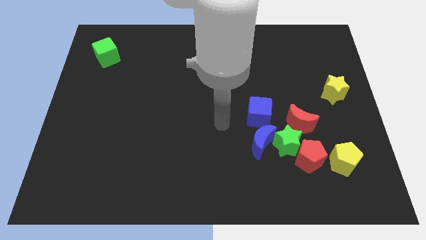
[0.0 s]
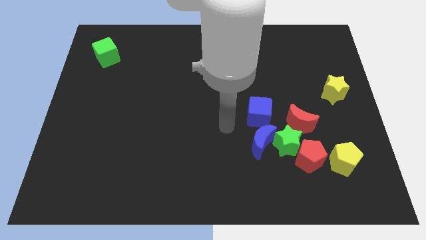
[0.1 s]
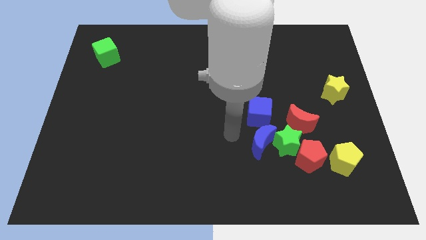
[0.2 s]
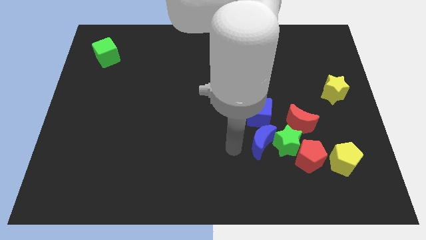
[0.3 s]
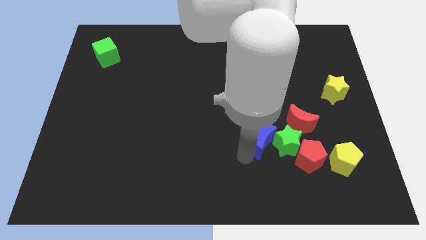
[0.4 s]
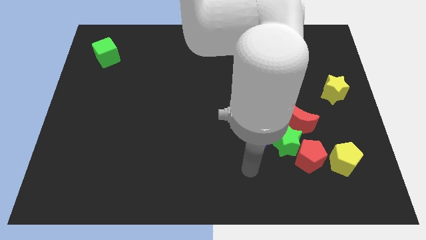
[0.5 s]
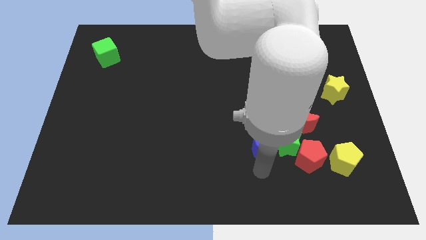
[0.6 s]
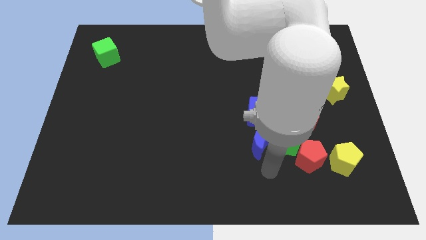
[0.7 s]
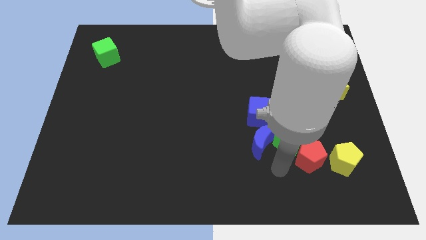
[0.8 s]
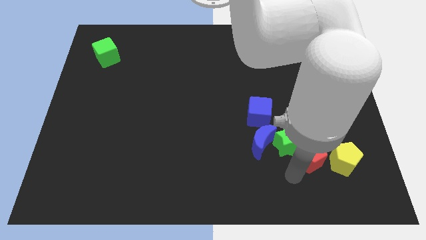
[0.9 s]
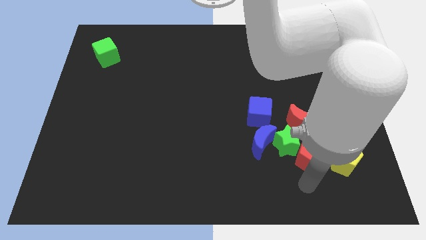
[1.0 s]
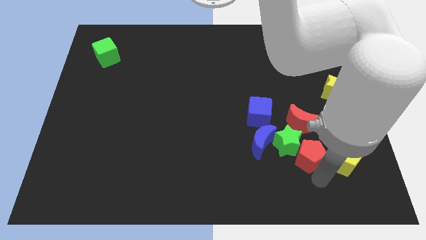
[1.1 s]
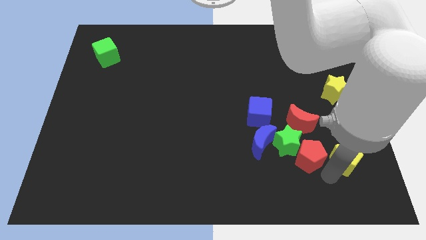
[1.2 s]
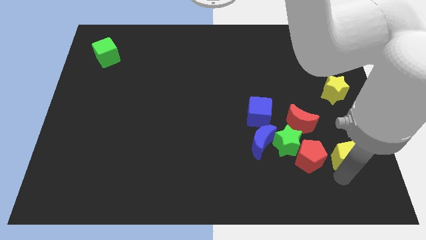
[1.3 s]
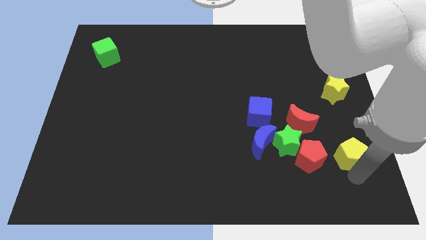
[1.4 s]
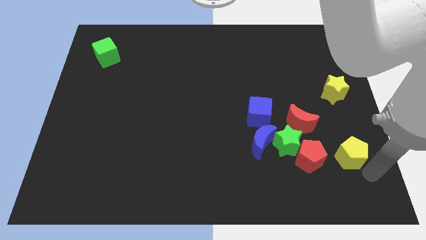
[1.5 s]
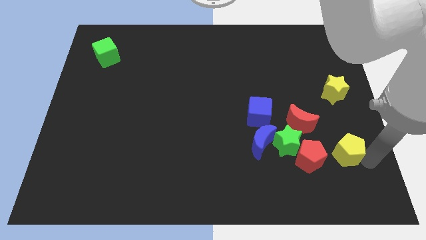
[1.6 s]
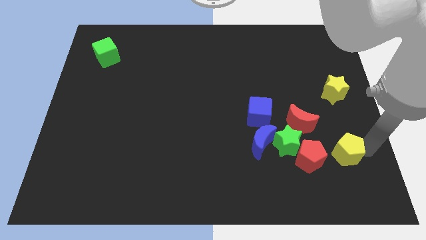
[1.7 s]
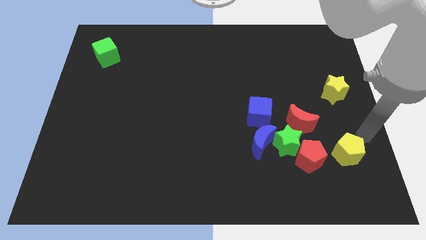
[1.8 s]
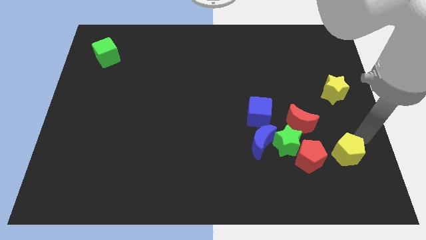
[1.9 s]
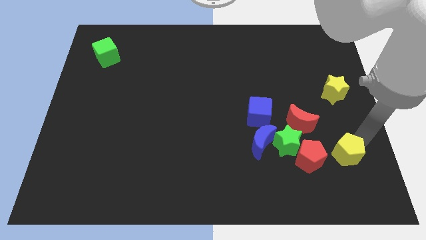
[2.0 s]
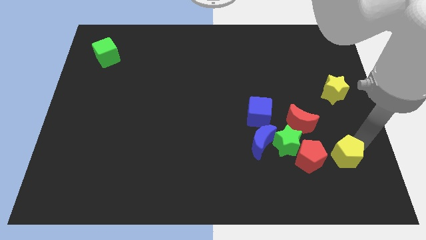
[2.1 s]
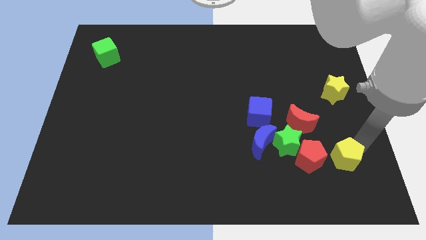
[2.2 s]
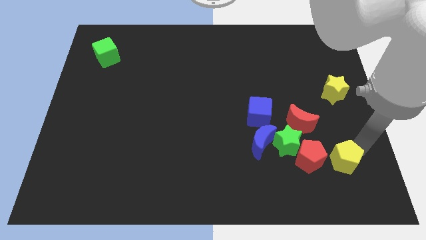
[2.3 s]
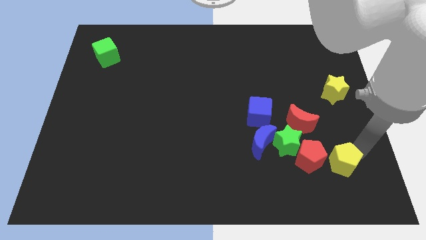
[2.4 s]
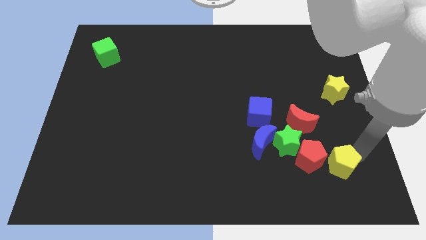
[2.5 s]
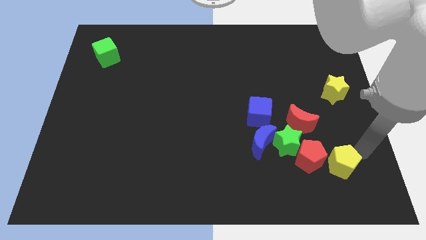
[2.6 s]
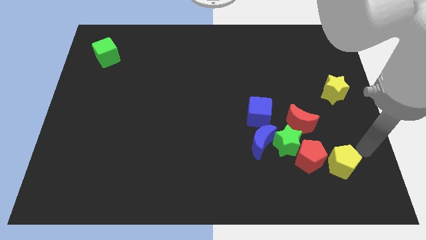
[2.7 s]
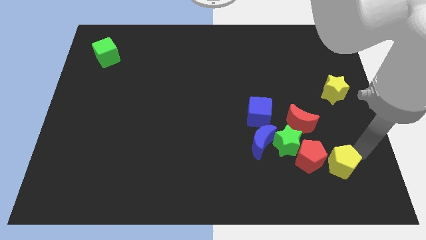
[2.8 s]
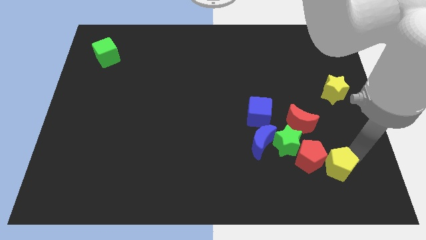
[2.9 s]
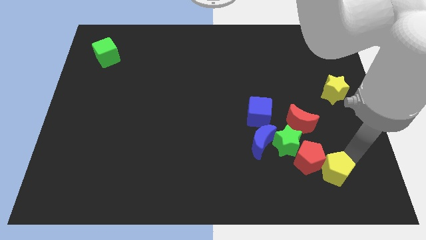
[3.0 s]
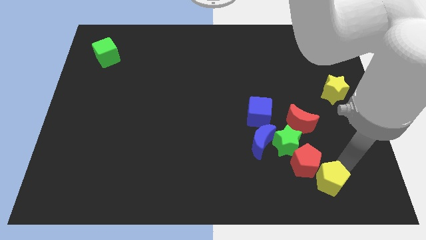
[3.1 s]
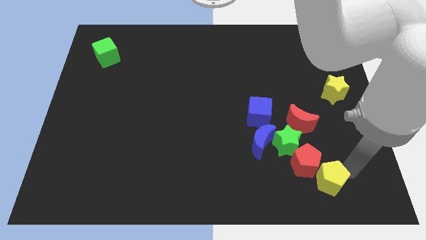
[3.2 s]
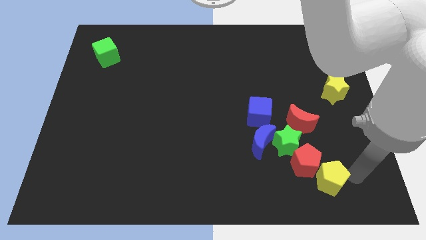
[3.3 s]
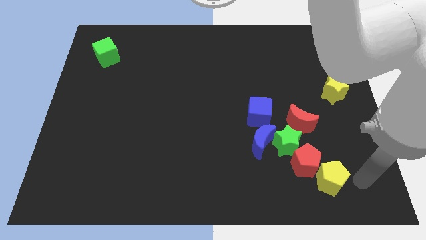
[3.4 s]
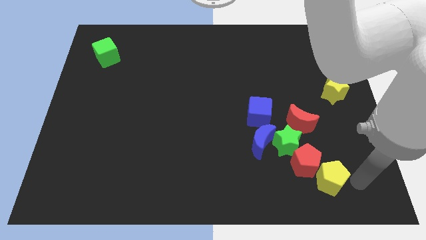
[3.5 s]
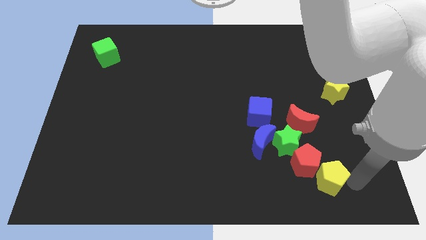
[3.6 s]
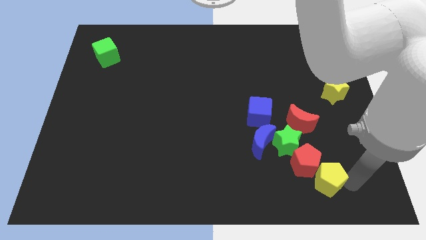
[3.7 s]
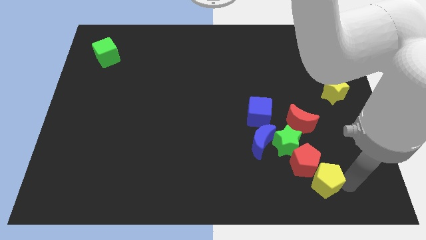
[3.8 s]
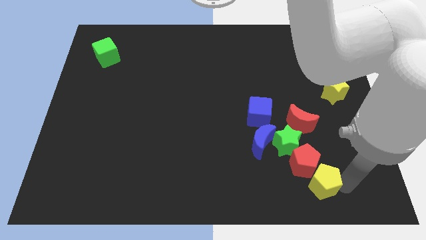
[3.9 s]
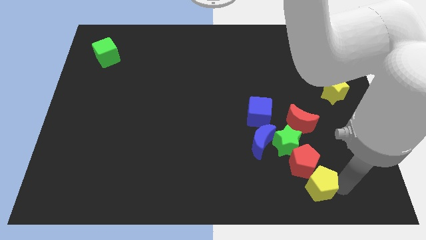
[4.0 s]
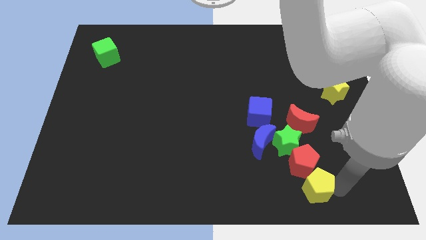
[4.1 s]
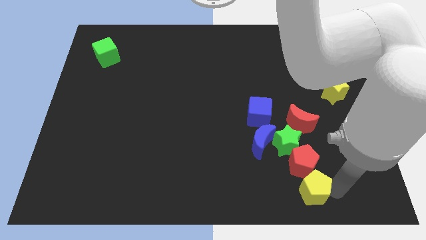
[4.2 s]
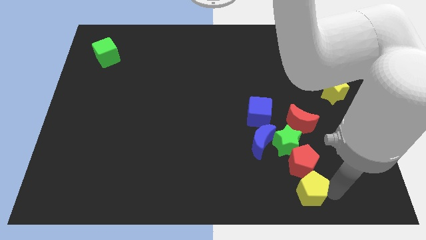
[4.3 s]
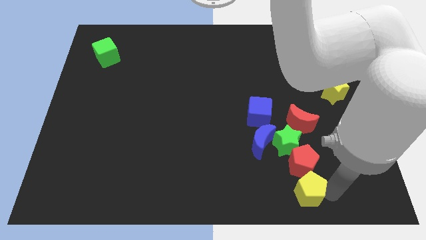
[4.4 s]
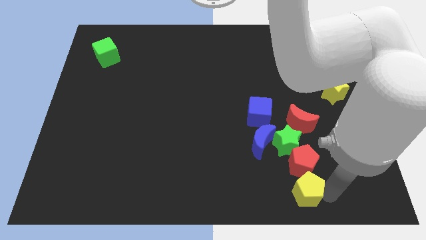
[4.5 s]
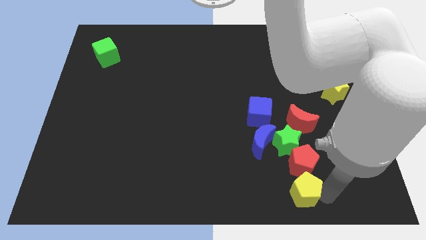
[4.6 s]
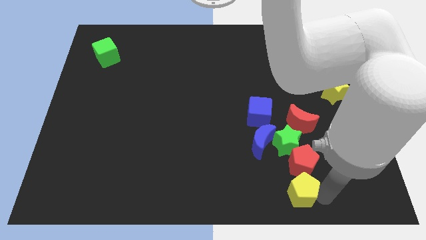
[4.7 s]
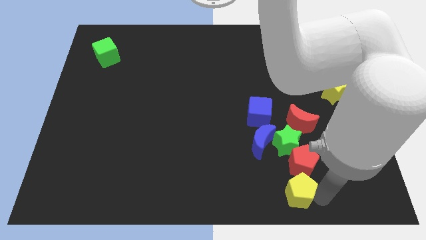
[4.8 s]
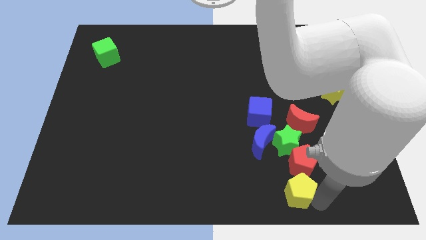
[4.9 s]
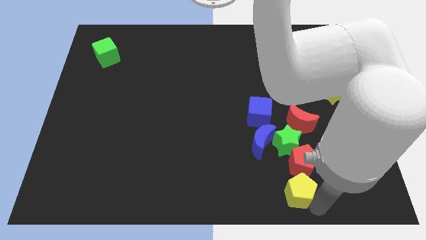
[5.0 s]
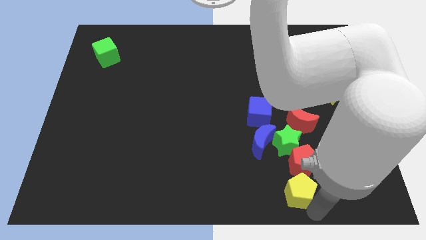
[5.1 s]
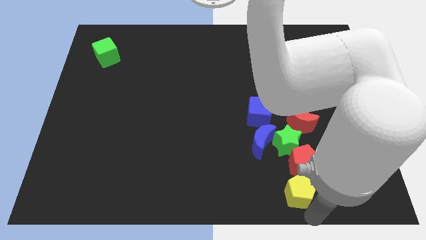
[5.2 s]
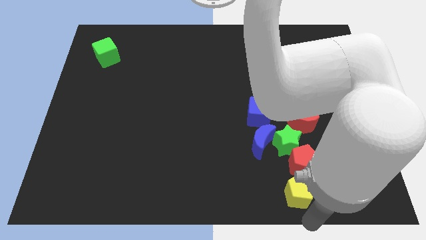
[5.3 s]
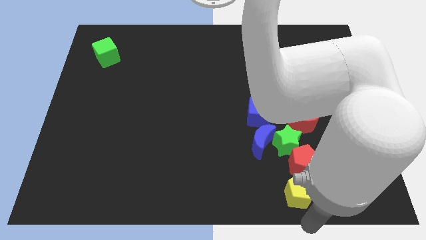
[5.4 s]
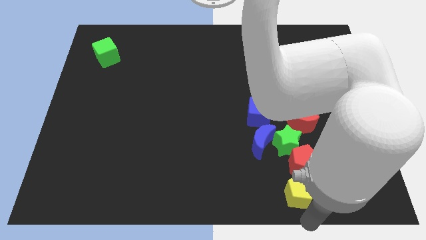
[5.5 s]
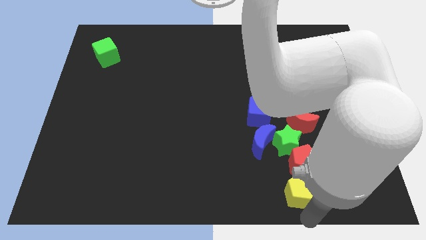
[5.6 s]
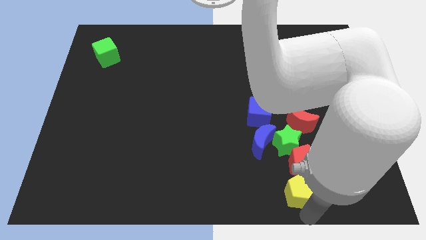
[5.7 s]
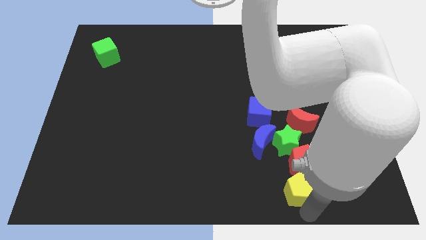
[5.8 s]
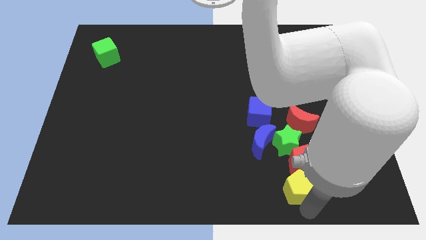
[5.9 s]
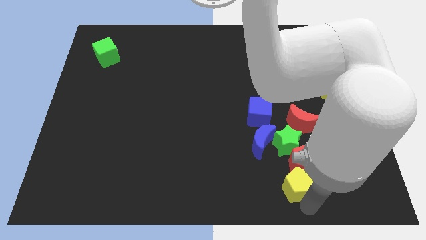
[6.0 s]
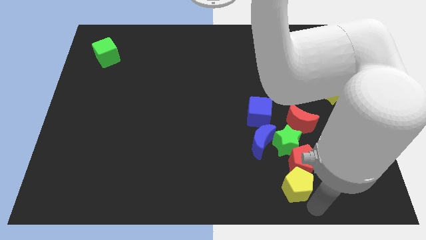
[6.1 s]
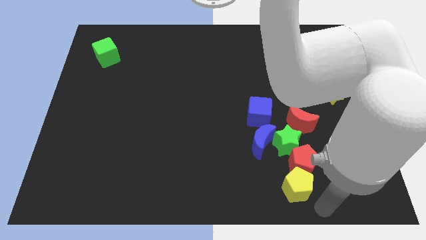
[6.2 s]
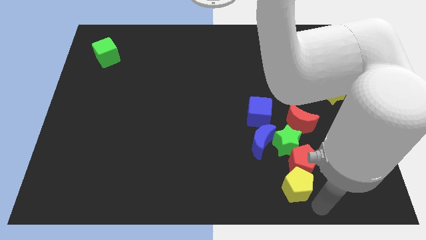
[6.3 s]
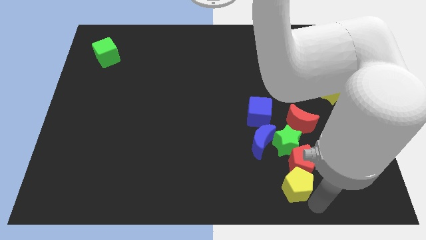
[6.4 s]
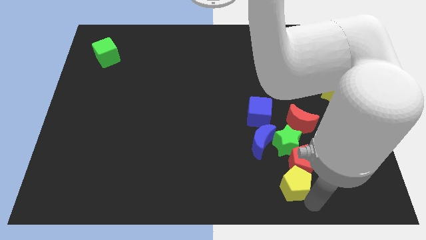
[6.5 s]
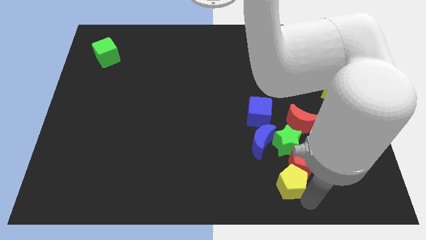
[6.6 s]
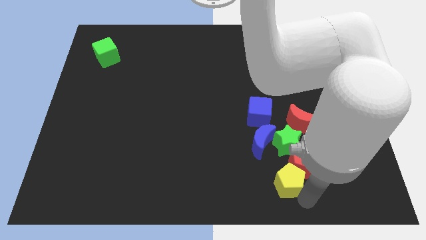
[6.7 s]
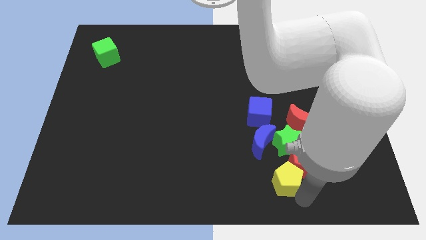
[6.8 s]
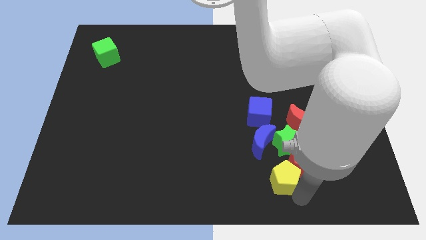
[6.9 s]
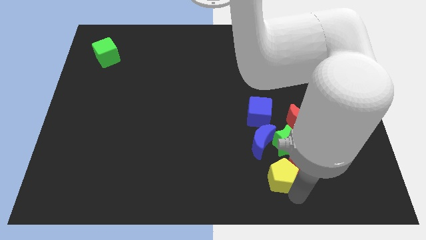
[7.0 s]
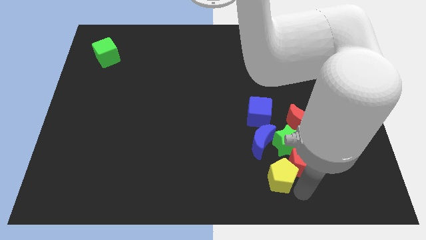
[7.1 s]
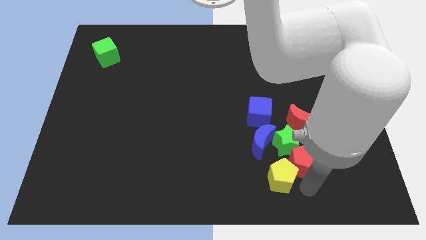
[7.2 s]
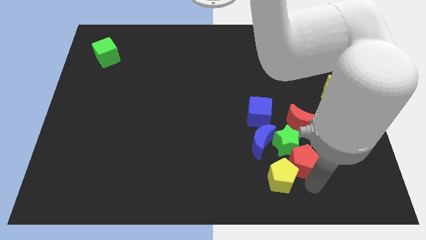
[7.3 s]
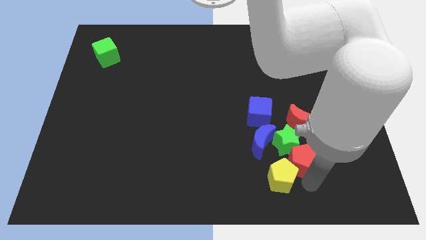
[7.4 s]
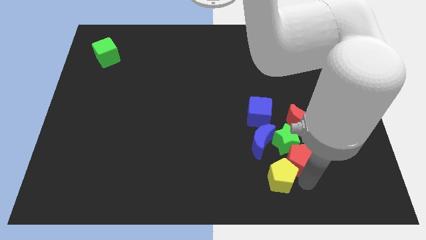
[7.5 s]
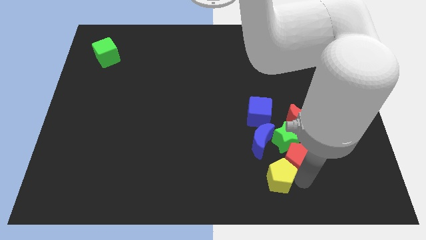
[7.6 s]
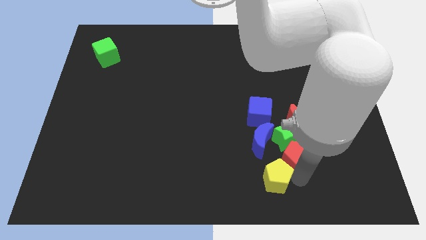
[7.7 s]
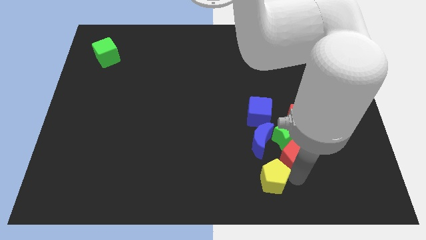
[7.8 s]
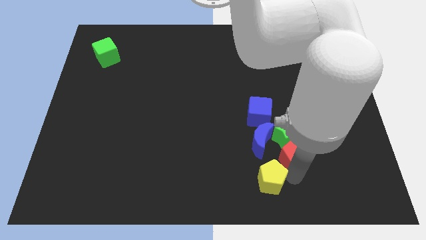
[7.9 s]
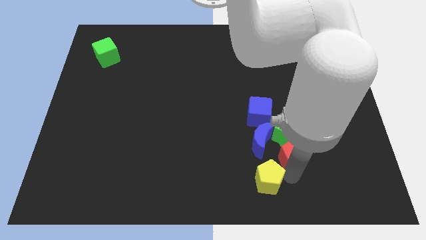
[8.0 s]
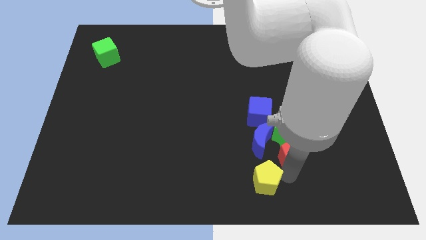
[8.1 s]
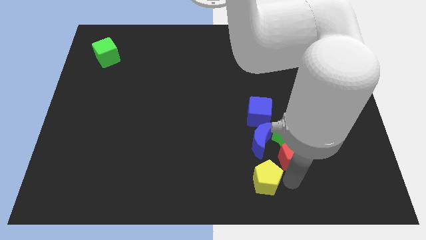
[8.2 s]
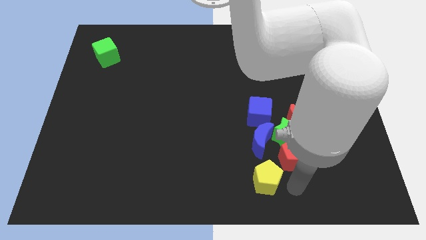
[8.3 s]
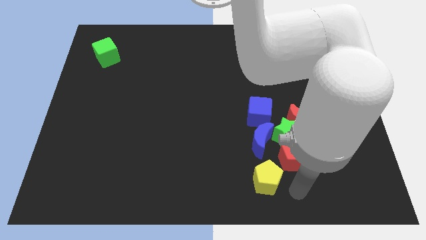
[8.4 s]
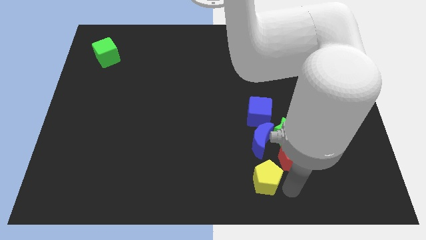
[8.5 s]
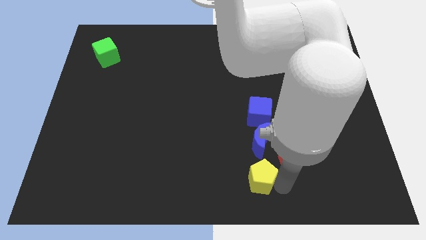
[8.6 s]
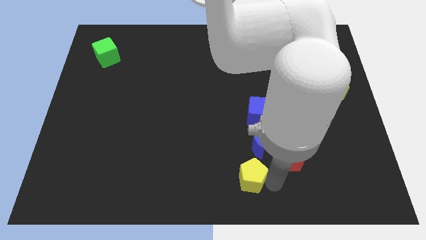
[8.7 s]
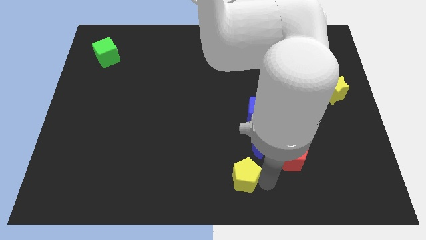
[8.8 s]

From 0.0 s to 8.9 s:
push the yellow pentagon to the left
